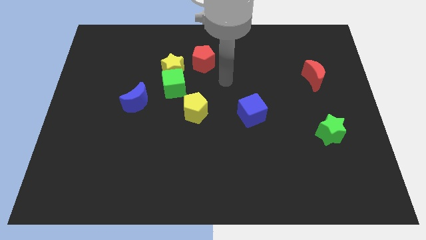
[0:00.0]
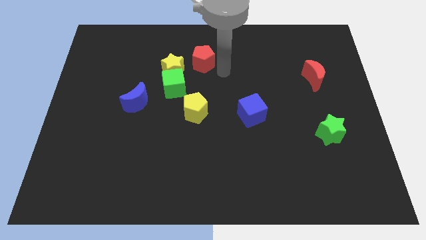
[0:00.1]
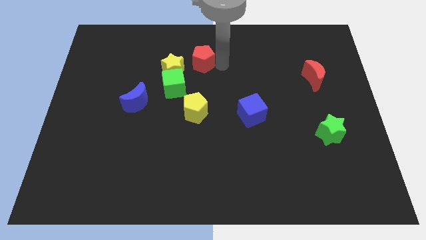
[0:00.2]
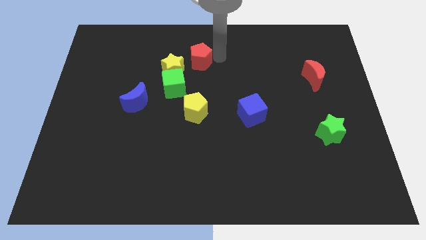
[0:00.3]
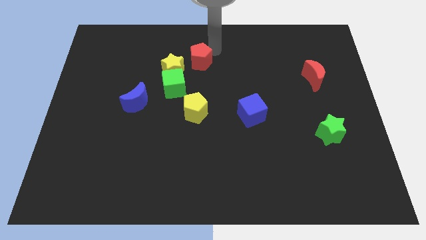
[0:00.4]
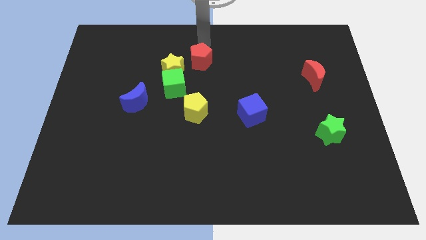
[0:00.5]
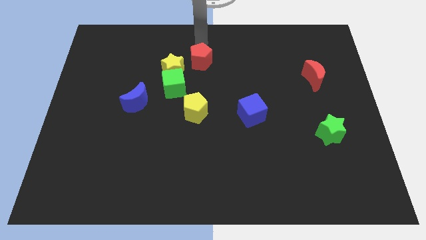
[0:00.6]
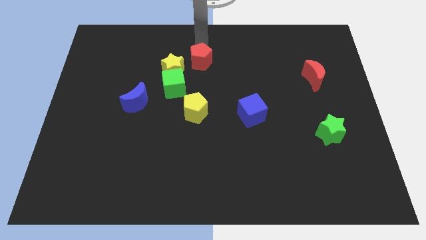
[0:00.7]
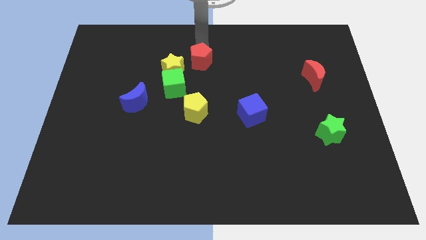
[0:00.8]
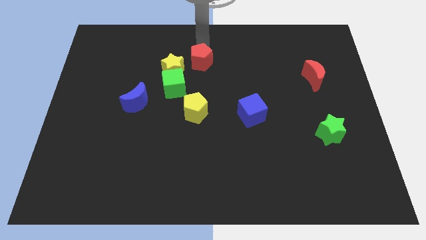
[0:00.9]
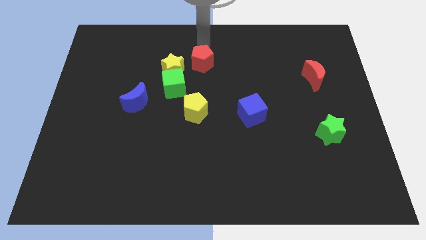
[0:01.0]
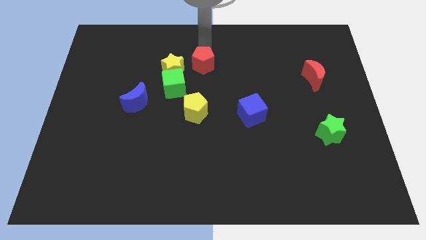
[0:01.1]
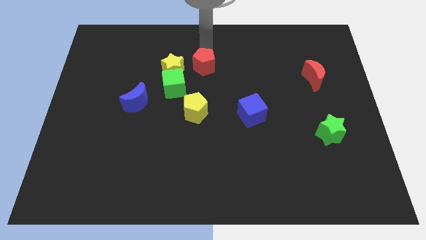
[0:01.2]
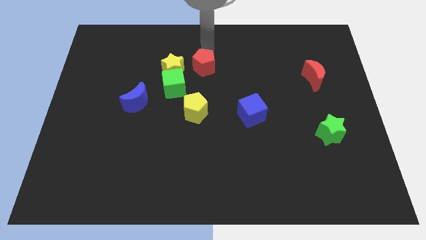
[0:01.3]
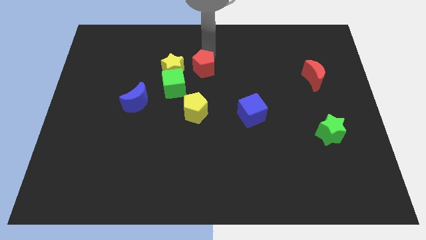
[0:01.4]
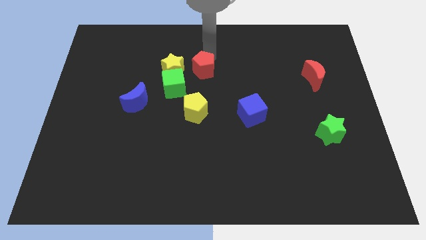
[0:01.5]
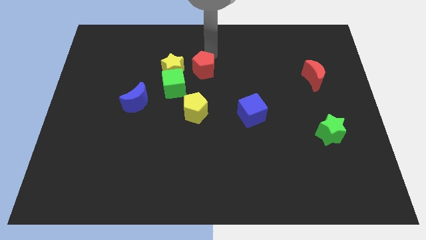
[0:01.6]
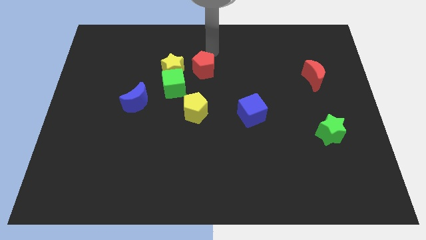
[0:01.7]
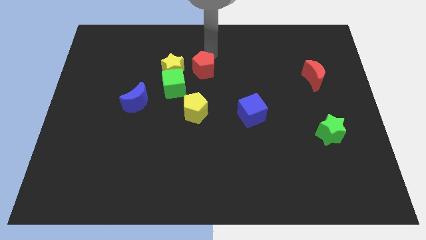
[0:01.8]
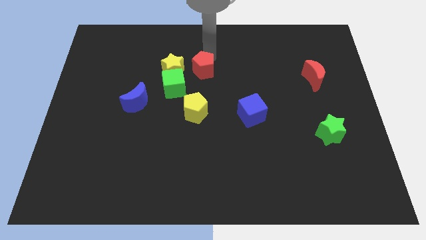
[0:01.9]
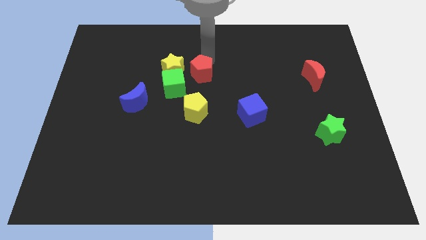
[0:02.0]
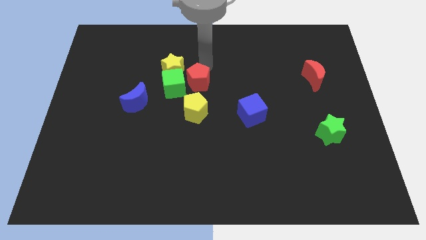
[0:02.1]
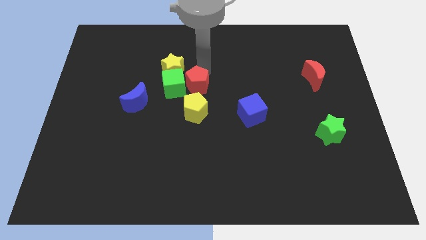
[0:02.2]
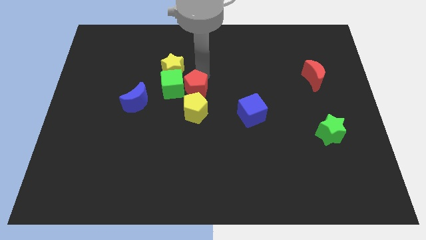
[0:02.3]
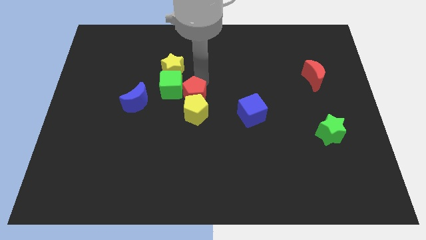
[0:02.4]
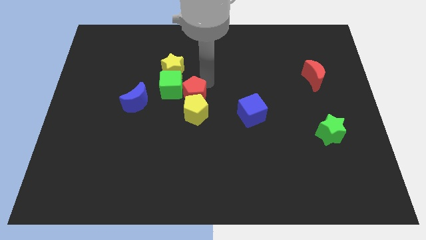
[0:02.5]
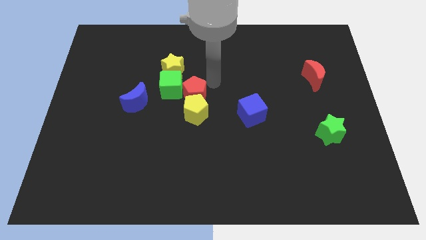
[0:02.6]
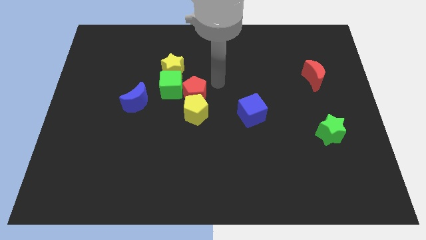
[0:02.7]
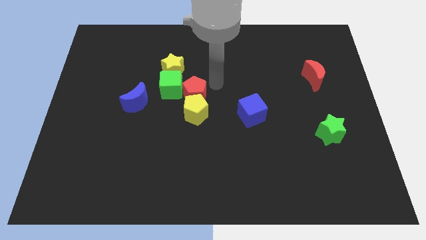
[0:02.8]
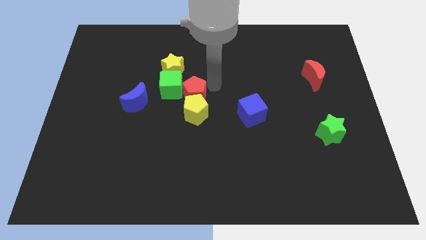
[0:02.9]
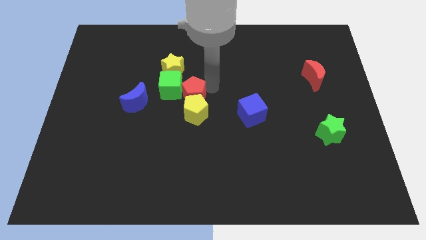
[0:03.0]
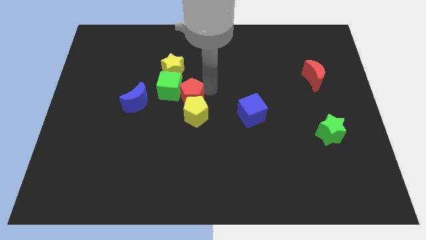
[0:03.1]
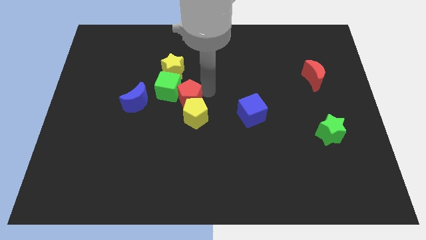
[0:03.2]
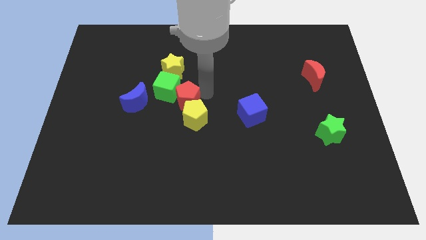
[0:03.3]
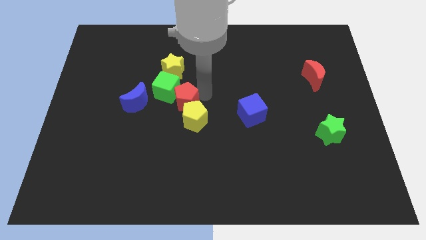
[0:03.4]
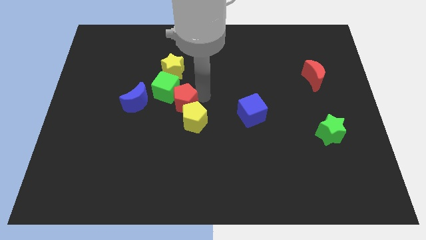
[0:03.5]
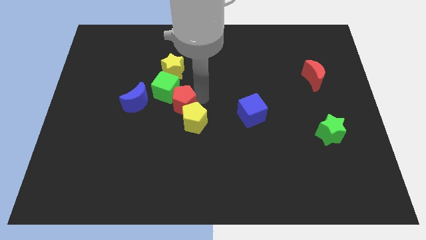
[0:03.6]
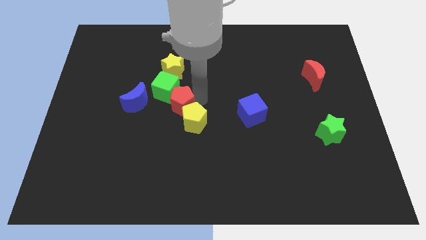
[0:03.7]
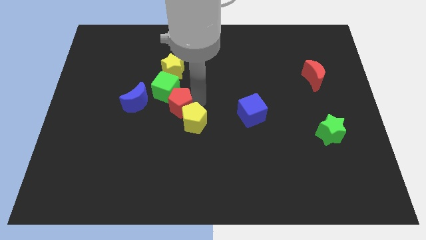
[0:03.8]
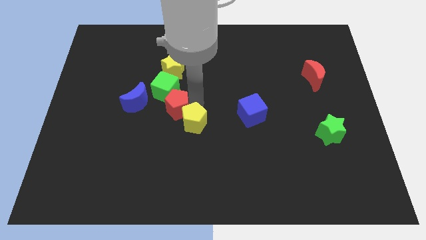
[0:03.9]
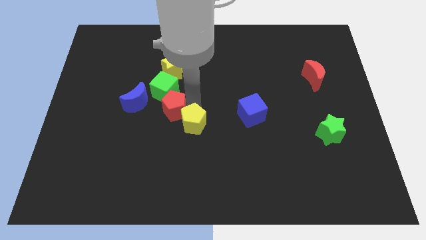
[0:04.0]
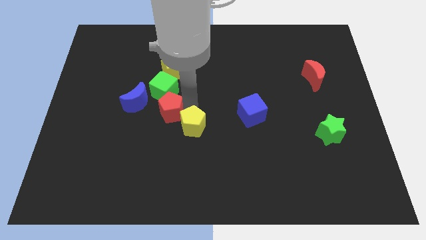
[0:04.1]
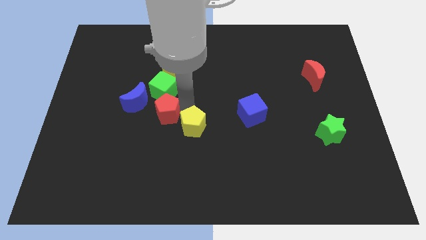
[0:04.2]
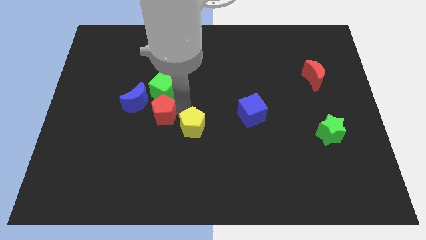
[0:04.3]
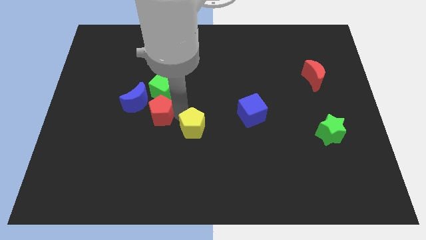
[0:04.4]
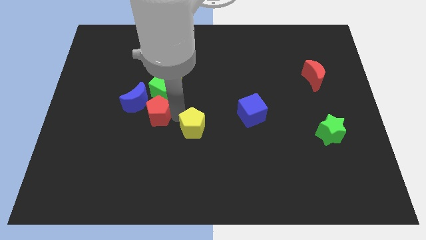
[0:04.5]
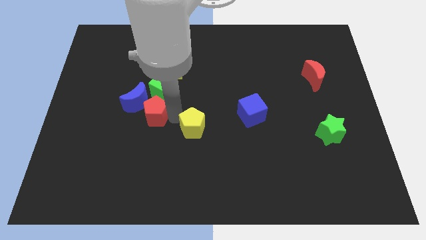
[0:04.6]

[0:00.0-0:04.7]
slide the red pentagon towards the blue moon

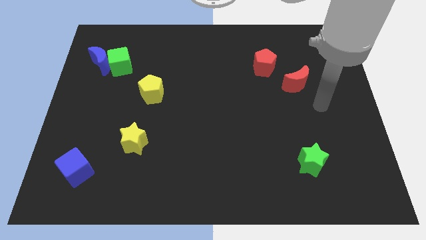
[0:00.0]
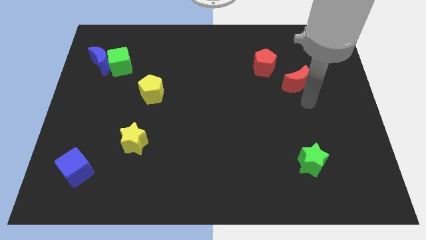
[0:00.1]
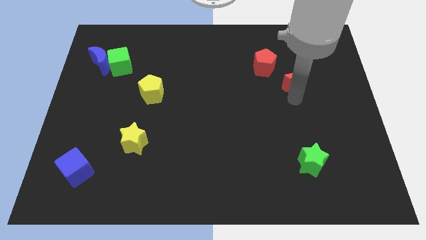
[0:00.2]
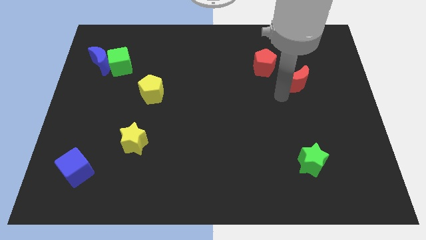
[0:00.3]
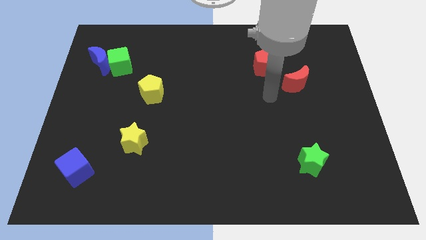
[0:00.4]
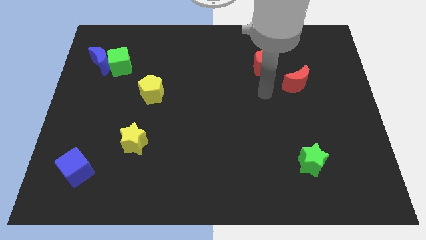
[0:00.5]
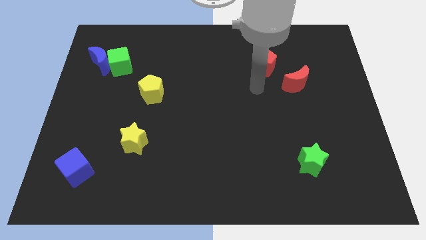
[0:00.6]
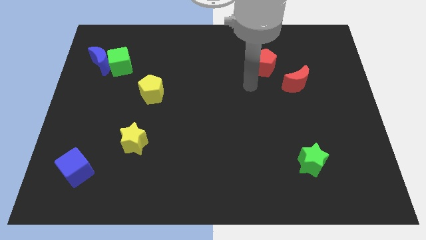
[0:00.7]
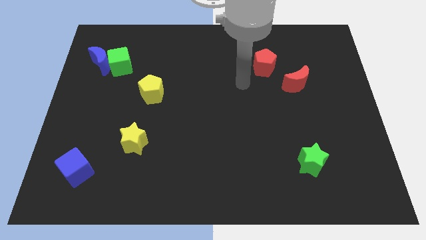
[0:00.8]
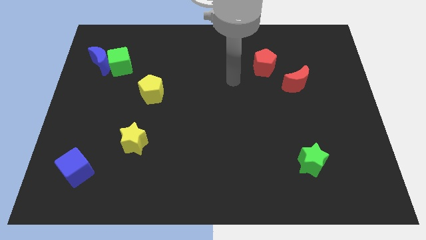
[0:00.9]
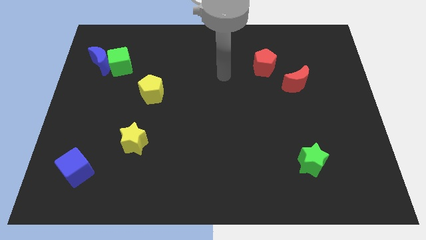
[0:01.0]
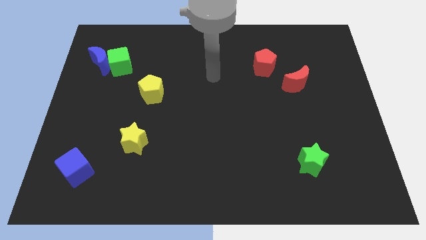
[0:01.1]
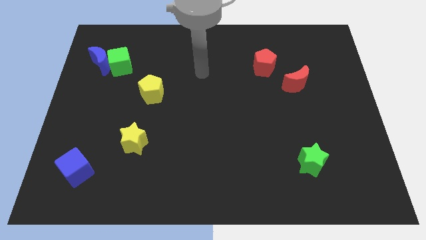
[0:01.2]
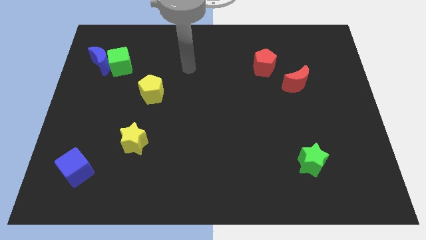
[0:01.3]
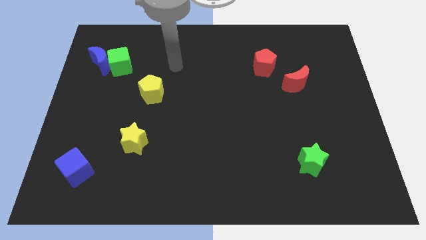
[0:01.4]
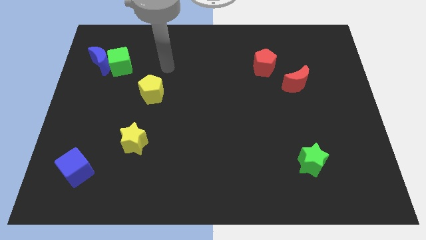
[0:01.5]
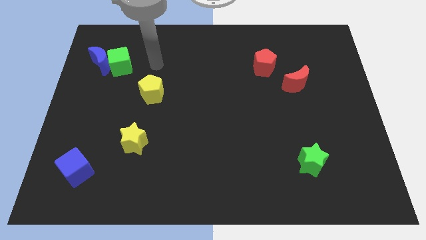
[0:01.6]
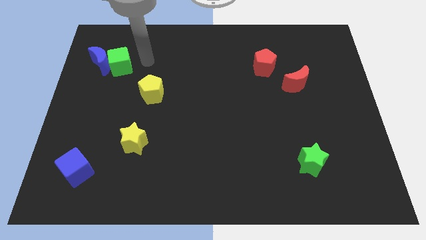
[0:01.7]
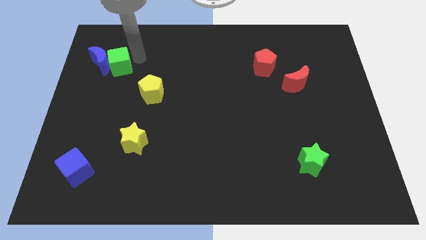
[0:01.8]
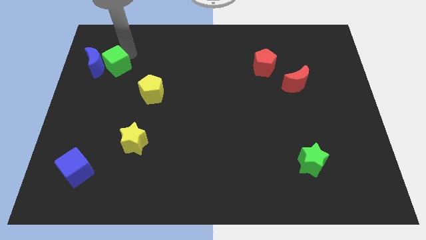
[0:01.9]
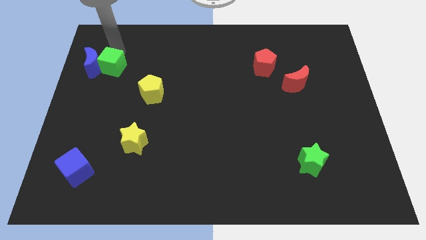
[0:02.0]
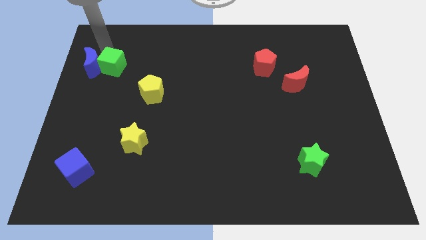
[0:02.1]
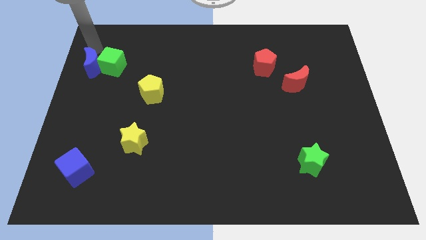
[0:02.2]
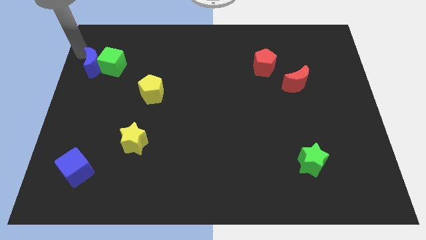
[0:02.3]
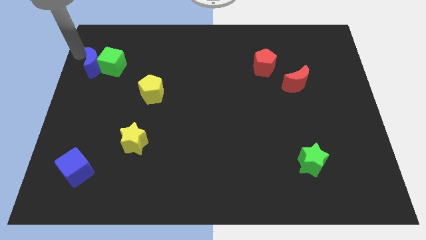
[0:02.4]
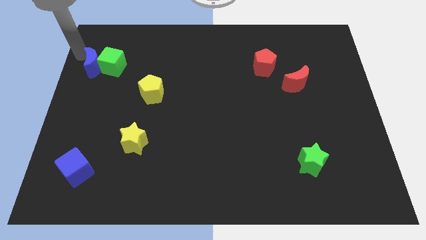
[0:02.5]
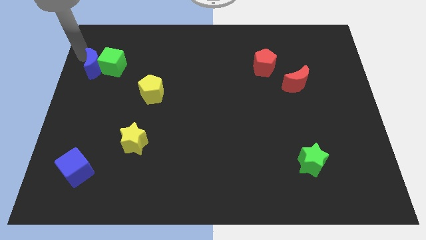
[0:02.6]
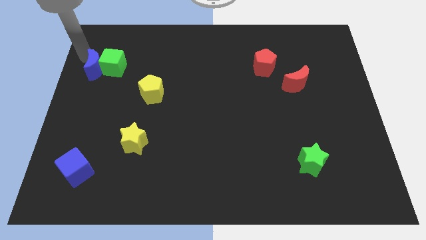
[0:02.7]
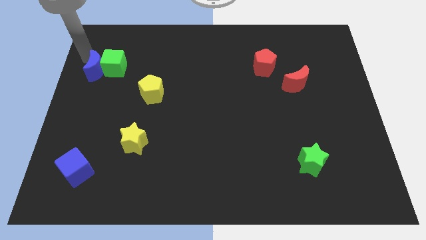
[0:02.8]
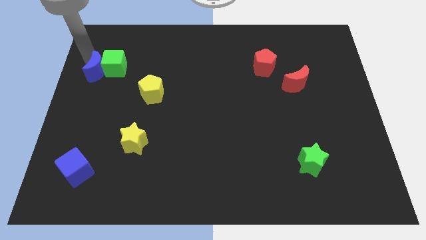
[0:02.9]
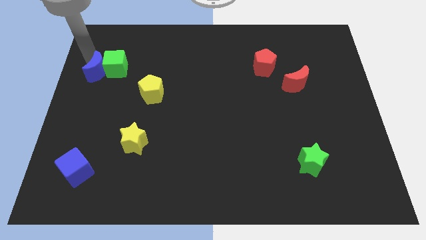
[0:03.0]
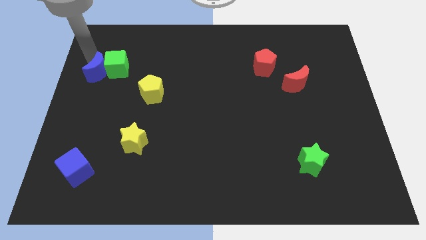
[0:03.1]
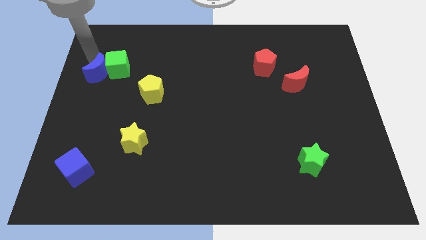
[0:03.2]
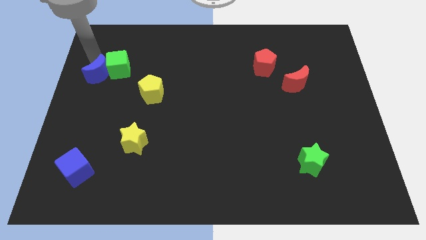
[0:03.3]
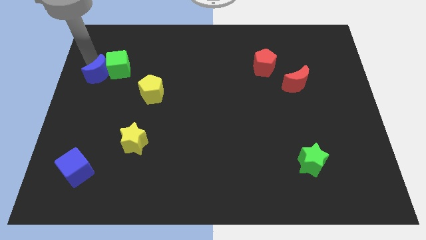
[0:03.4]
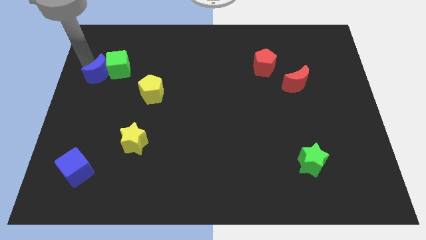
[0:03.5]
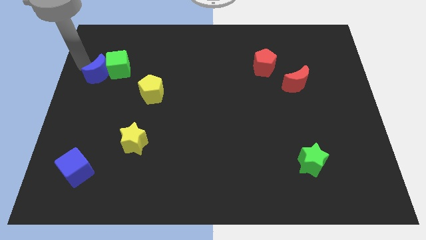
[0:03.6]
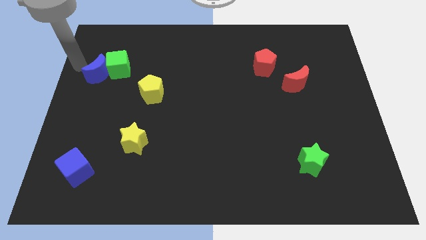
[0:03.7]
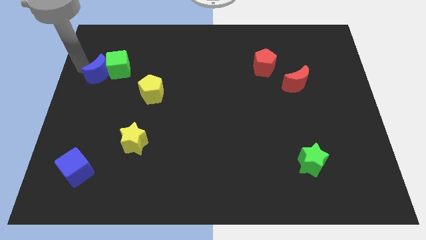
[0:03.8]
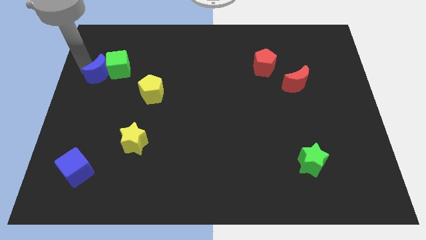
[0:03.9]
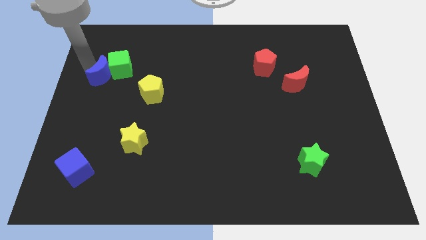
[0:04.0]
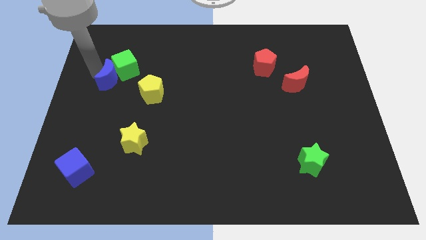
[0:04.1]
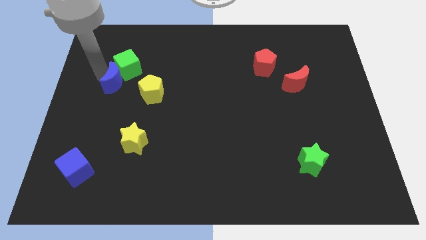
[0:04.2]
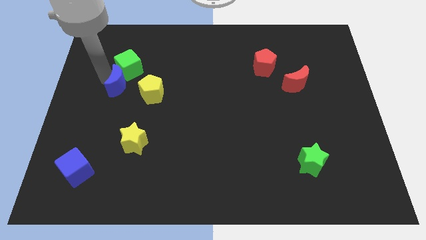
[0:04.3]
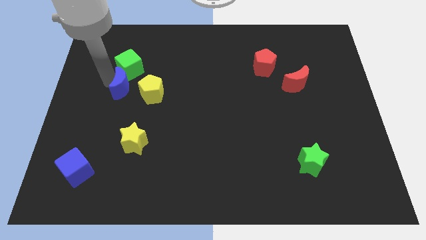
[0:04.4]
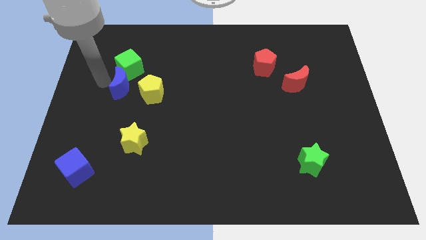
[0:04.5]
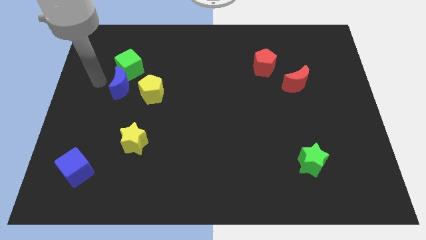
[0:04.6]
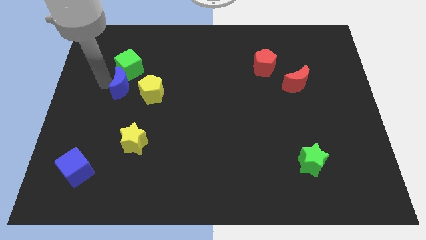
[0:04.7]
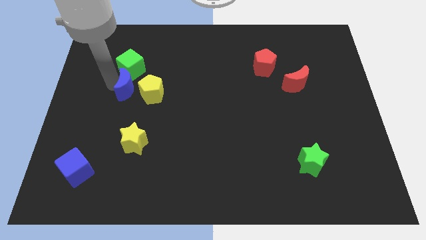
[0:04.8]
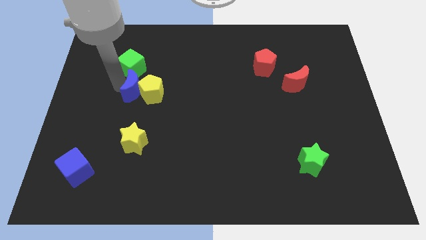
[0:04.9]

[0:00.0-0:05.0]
slide the blue moon next to the yellow pentagon
